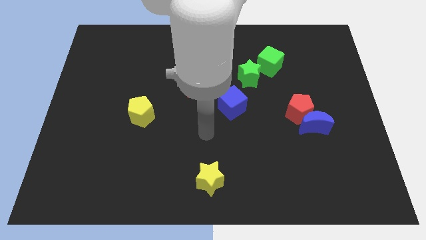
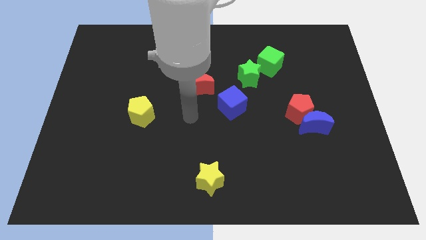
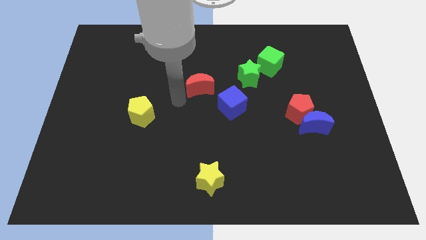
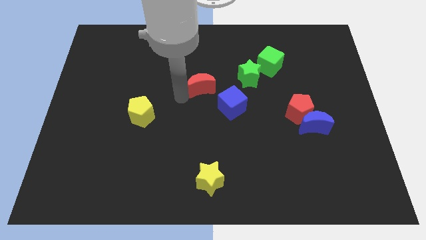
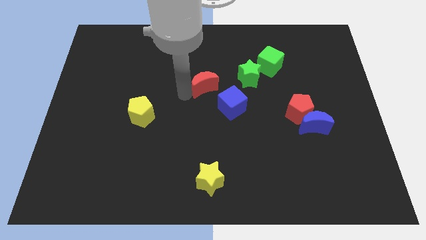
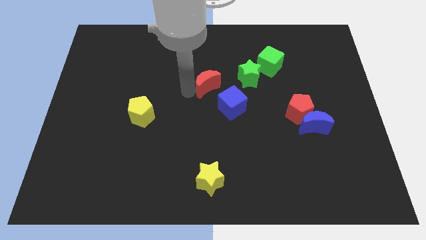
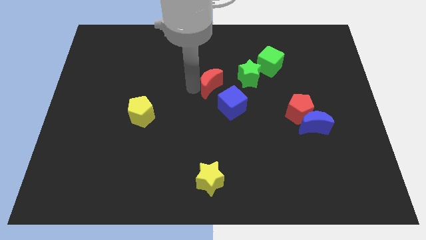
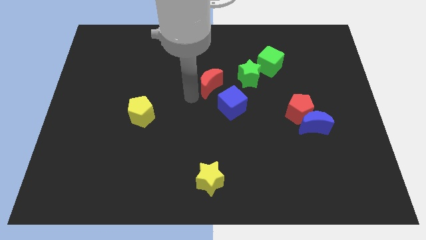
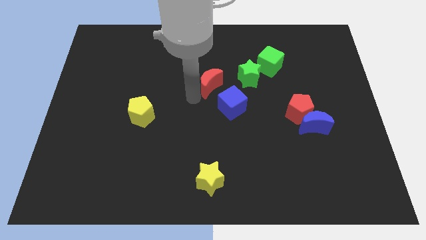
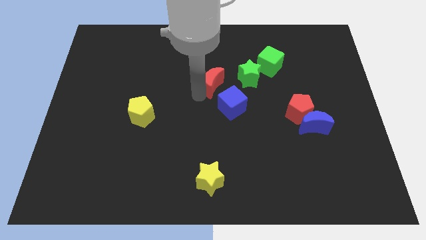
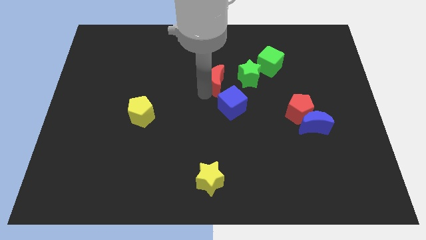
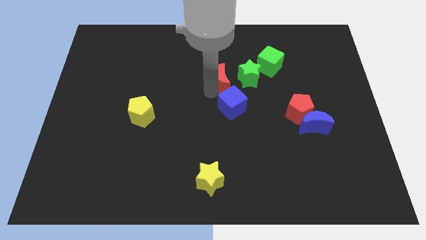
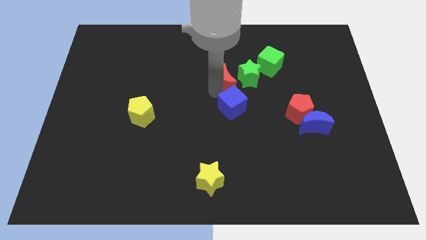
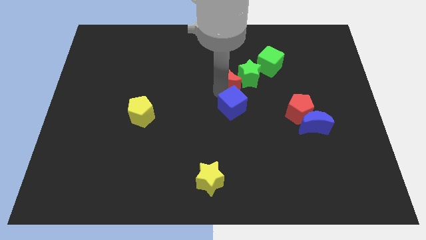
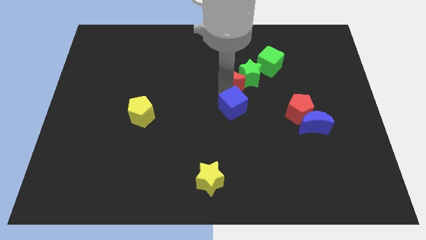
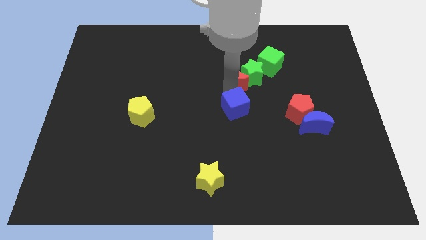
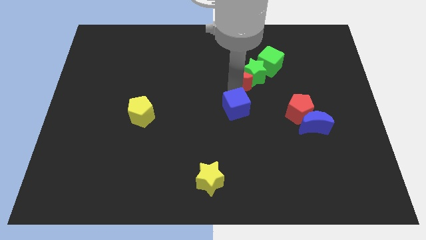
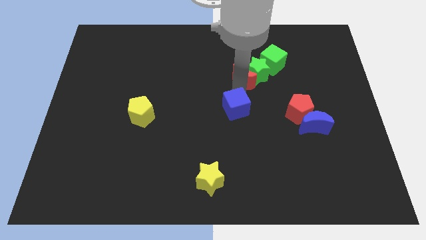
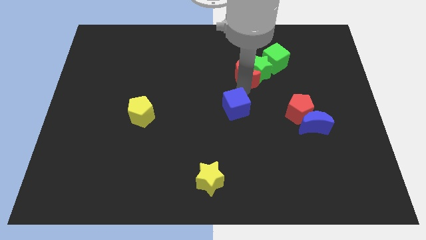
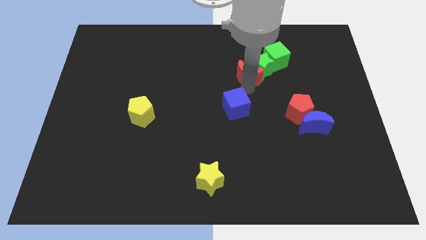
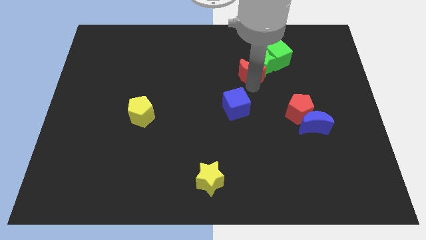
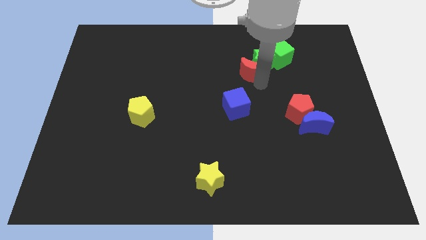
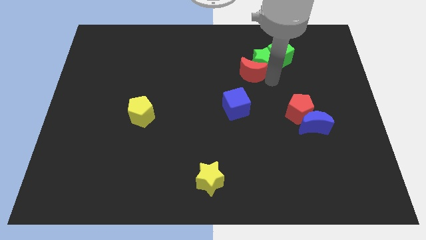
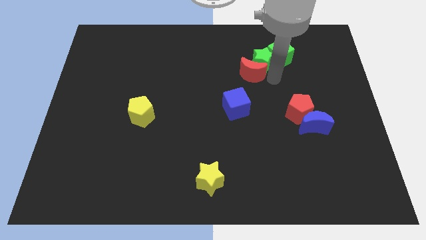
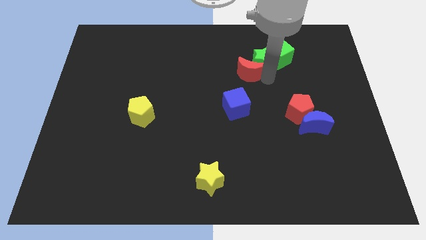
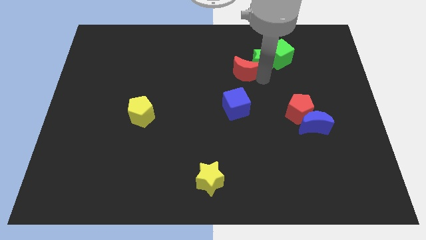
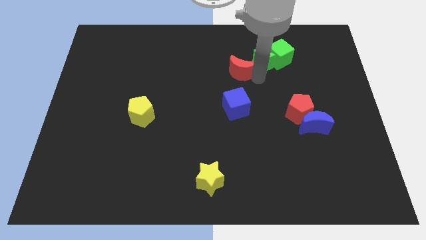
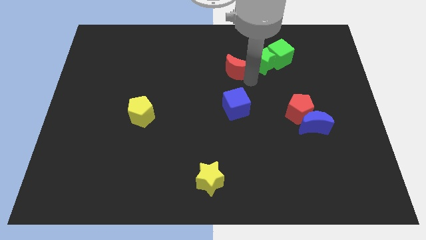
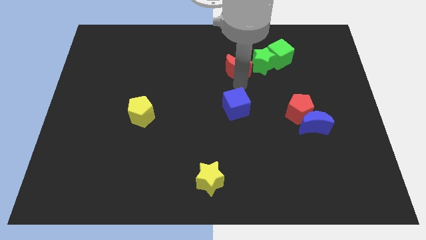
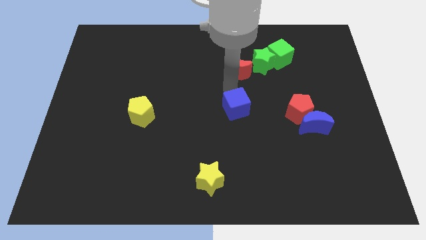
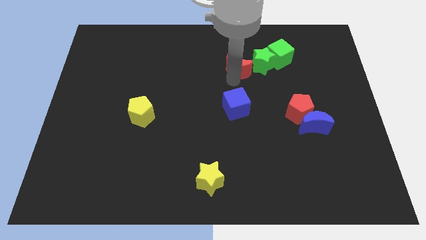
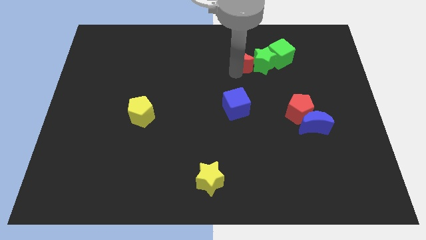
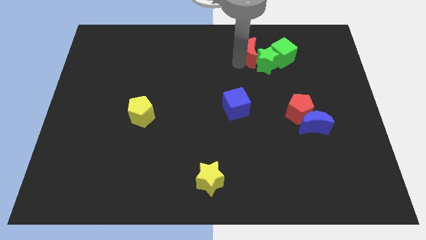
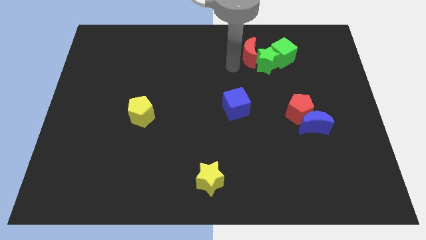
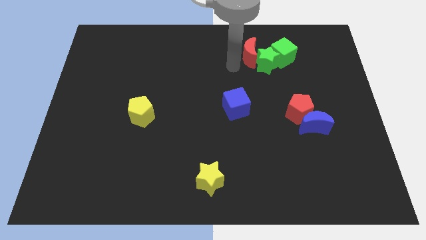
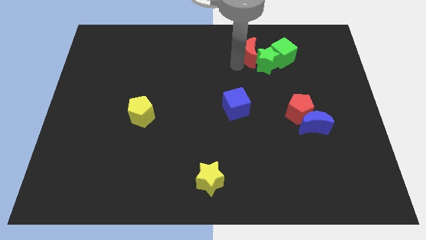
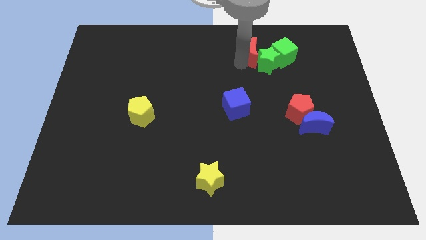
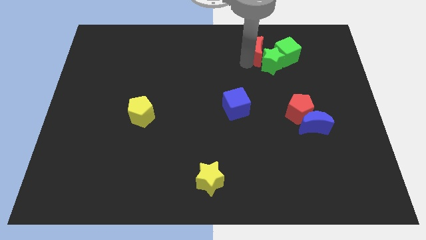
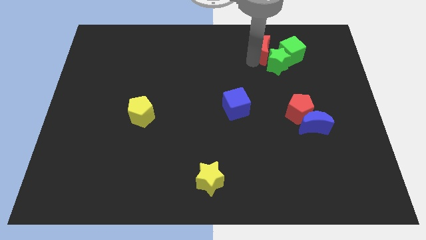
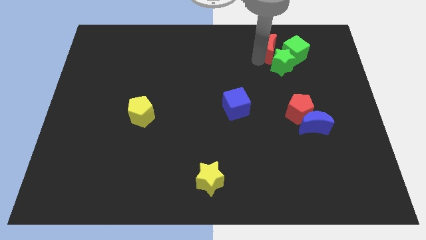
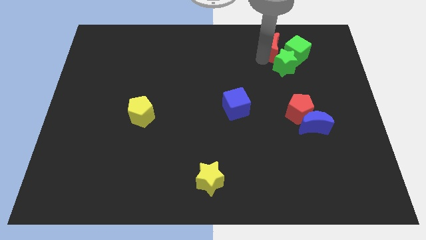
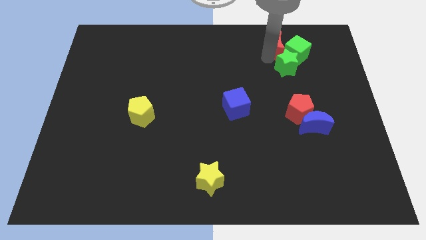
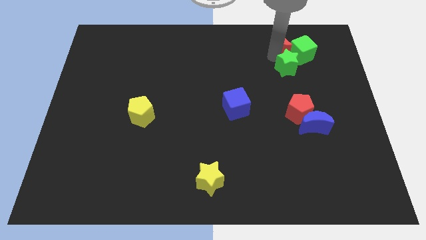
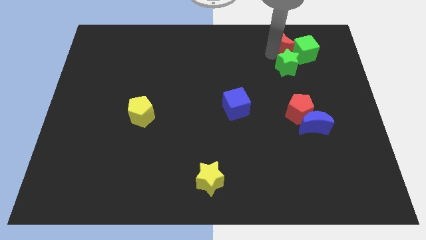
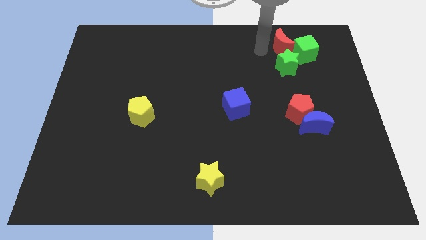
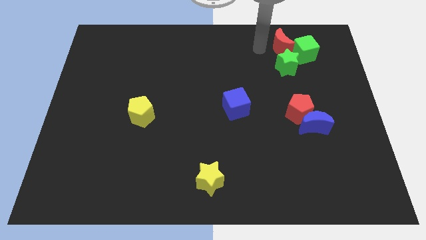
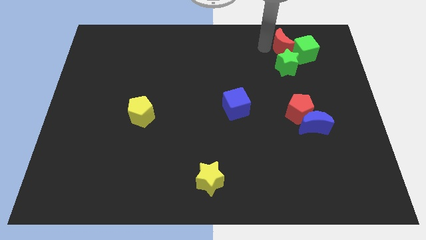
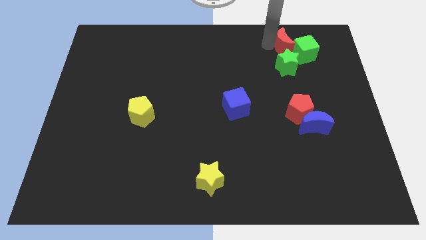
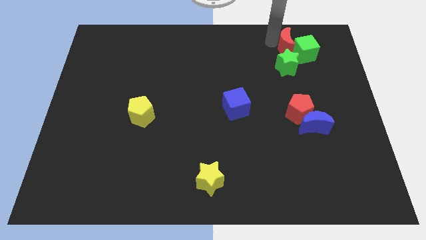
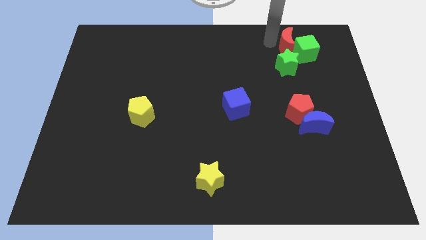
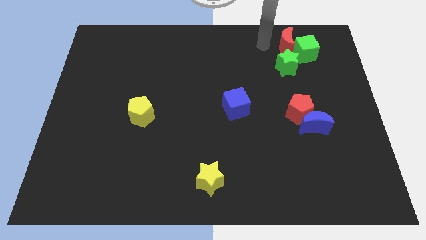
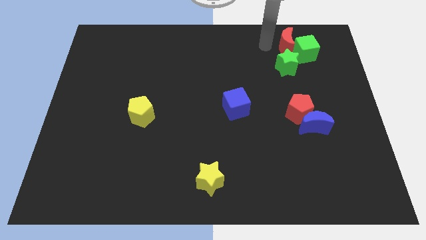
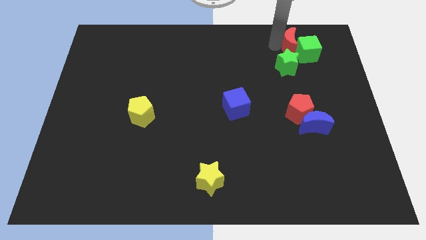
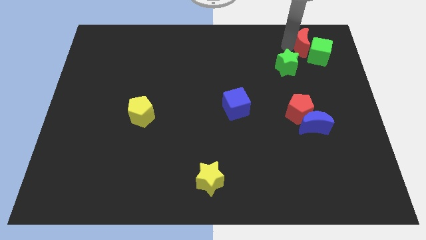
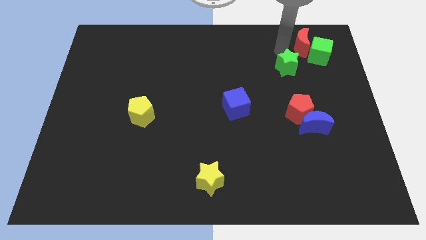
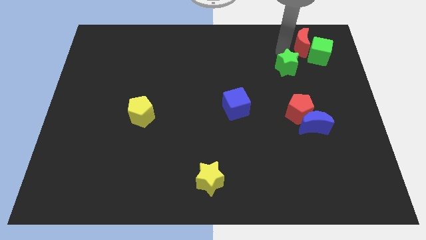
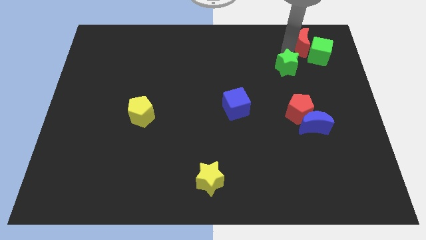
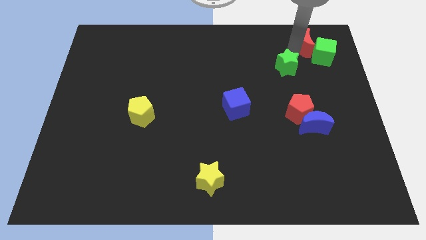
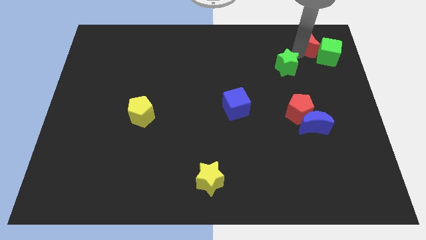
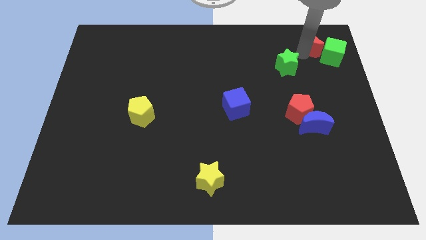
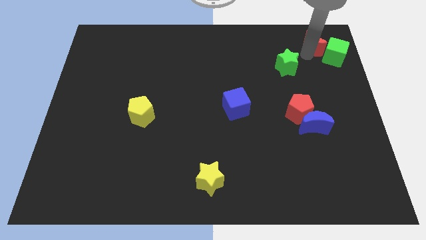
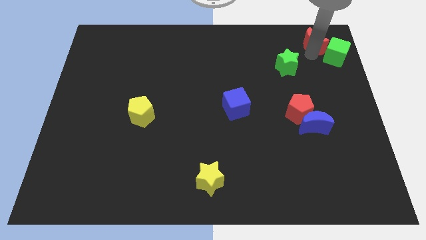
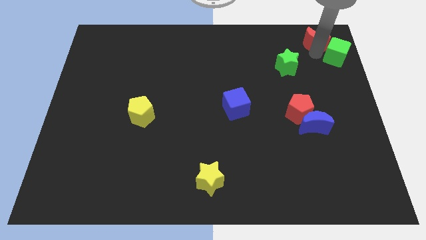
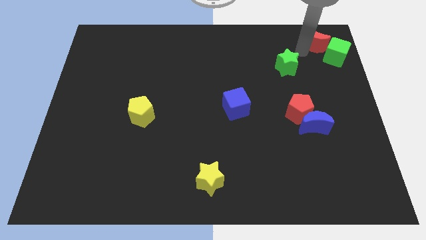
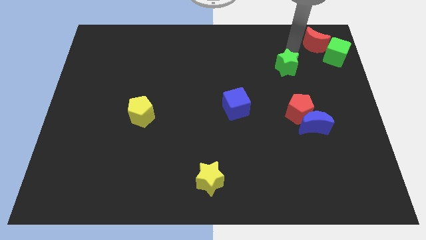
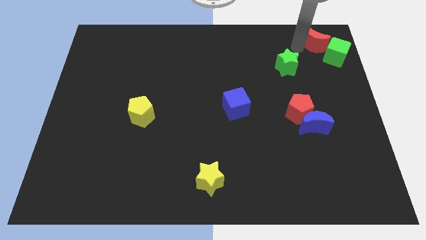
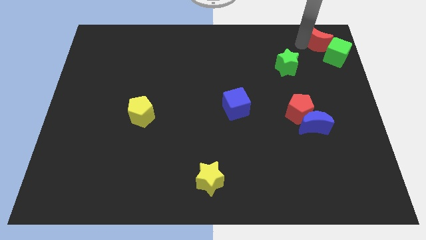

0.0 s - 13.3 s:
push the red moon to the upper right corner

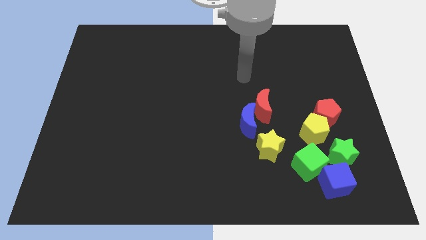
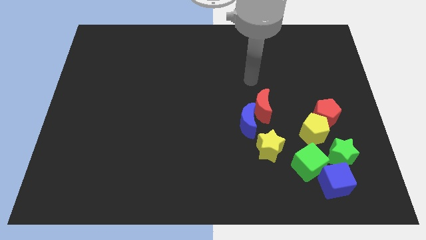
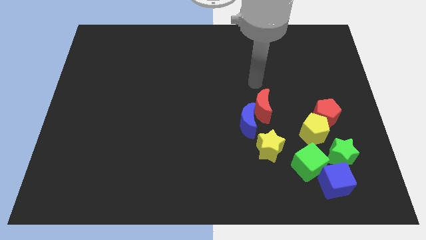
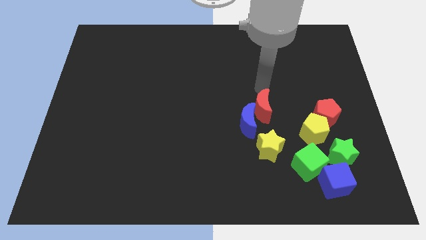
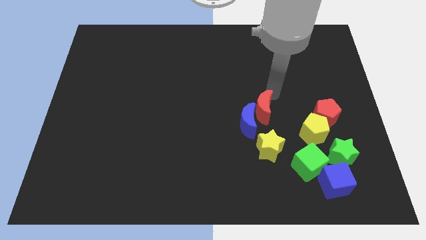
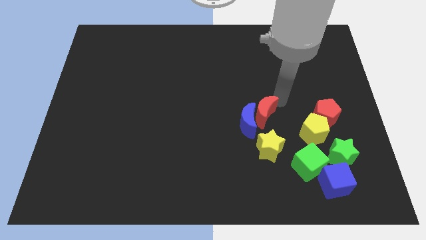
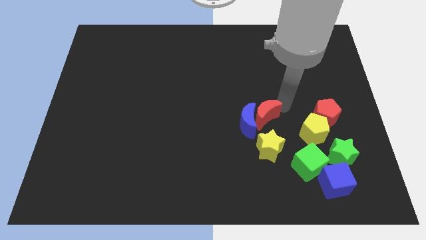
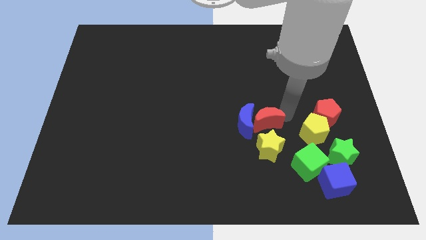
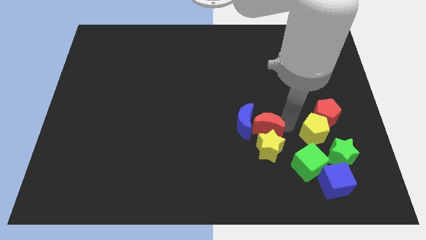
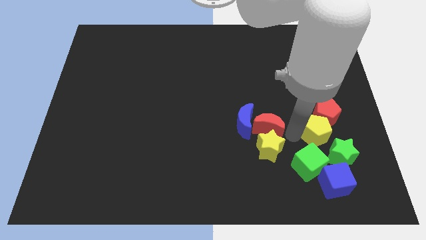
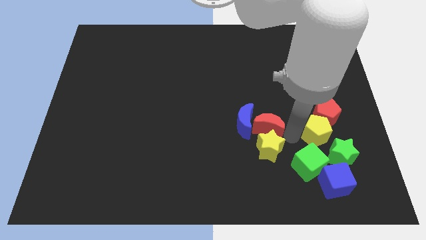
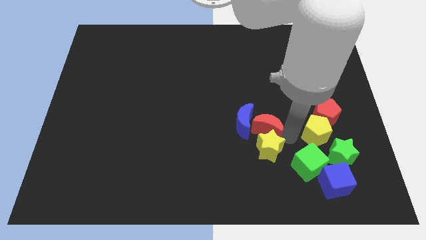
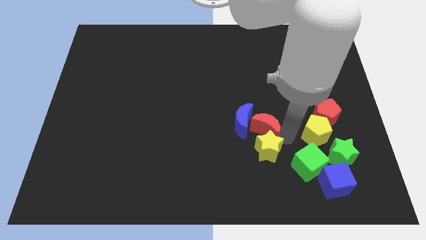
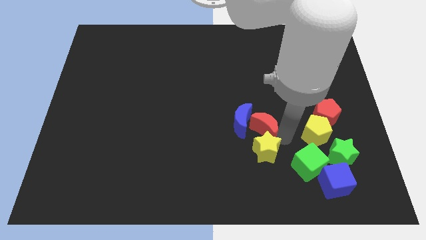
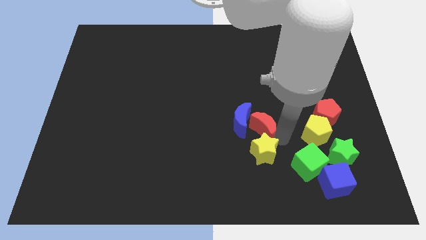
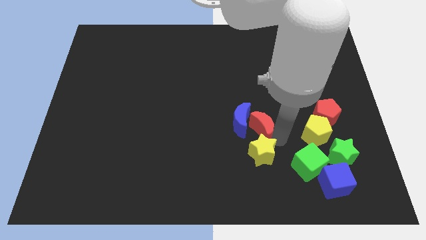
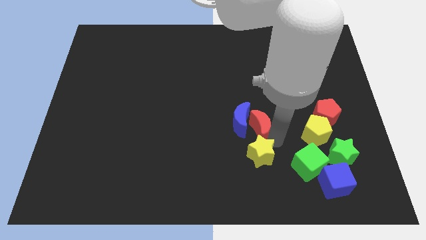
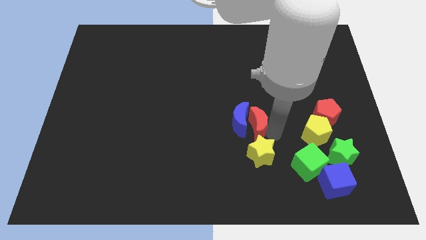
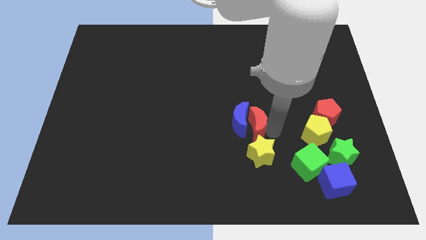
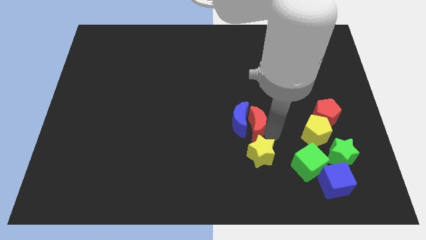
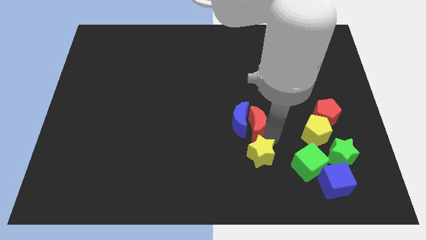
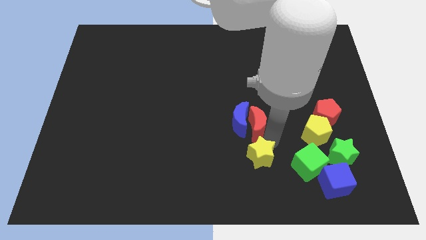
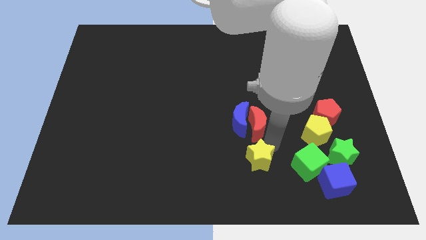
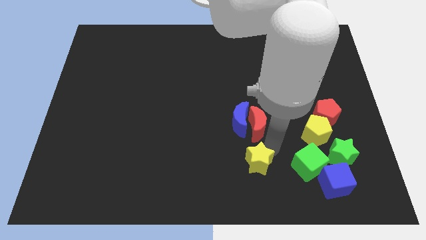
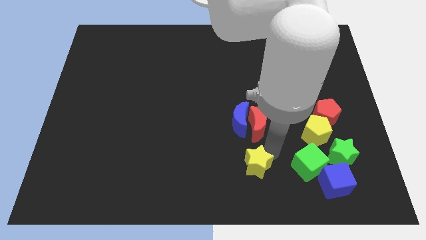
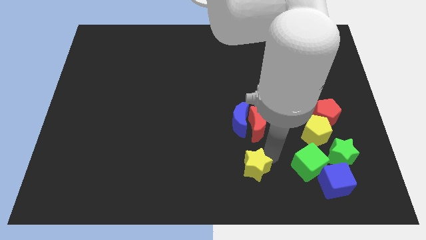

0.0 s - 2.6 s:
put the yellow star to the bottom
